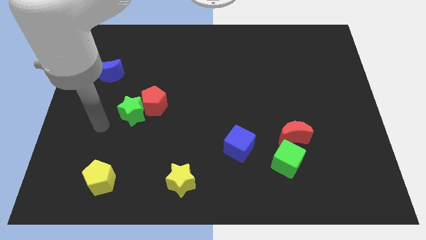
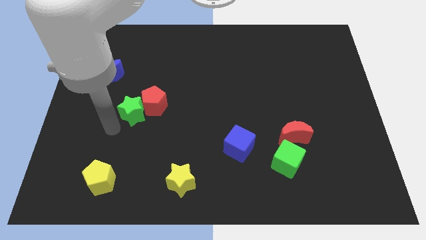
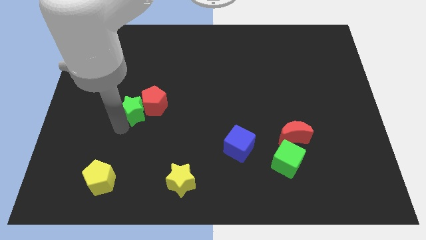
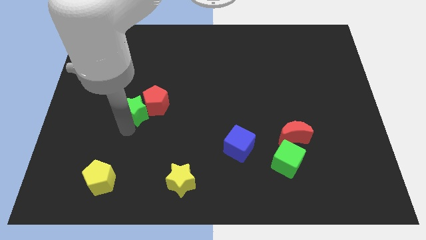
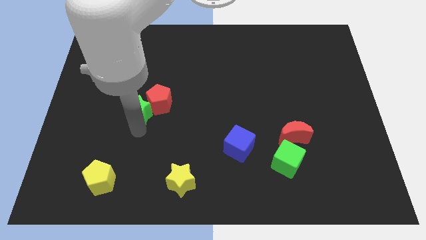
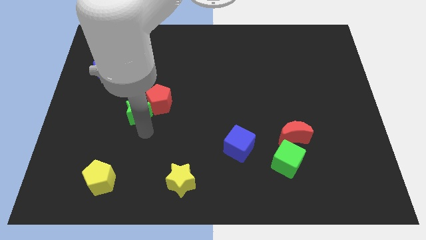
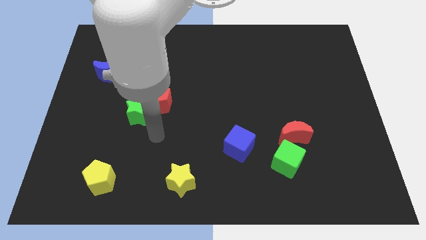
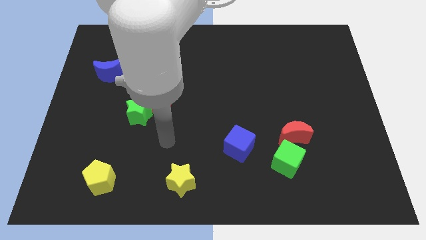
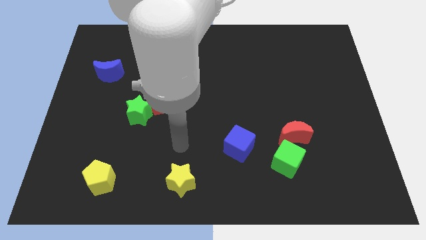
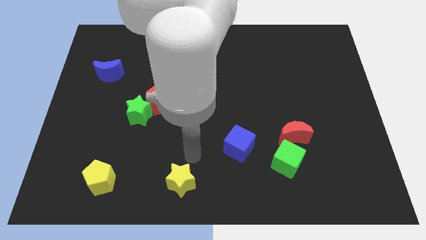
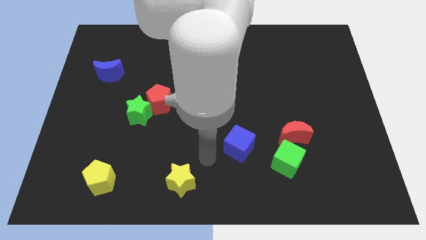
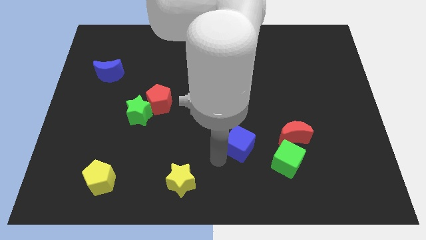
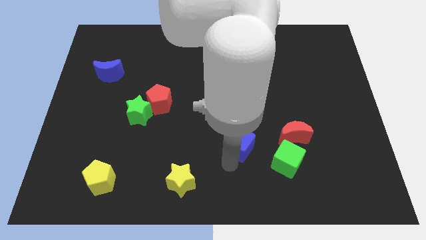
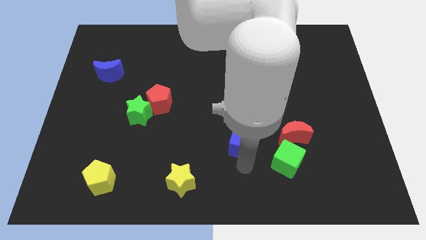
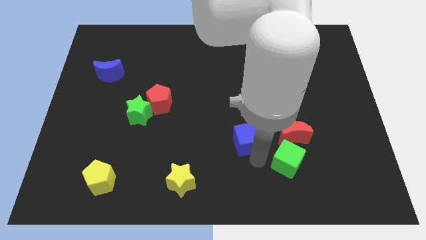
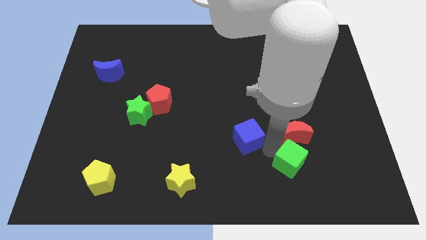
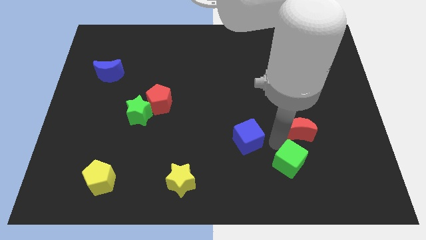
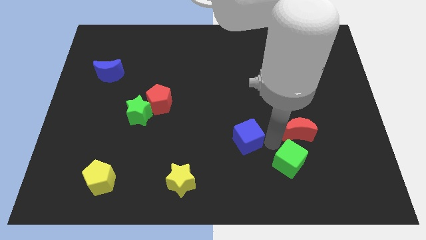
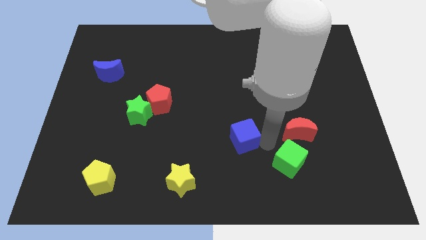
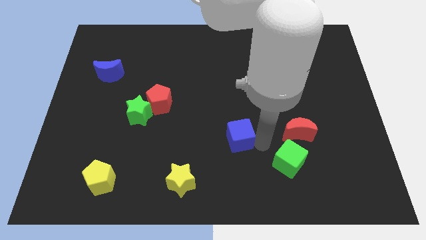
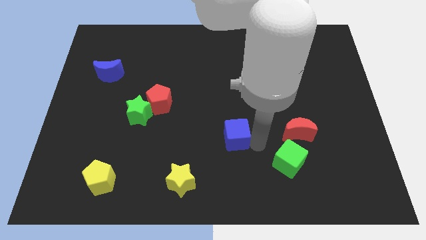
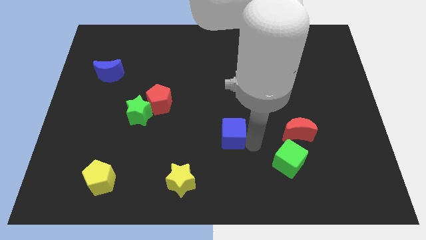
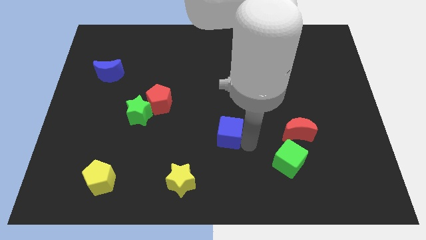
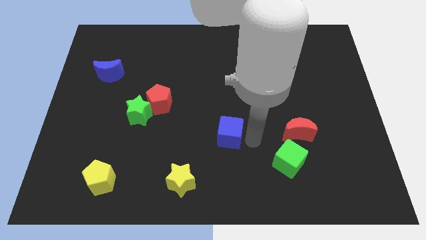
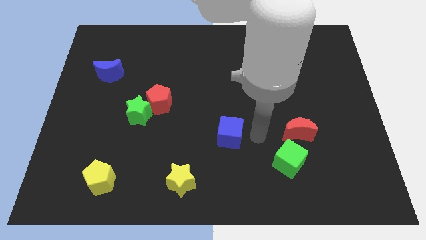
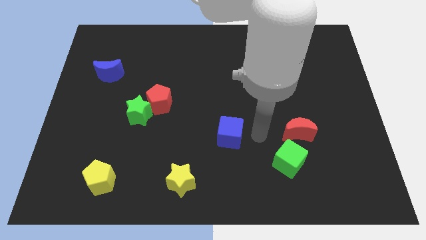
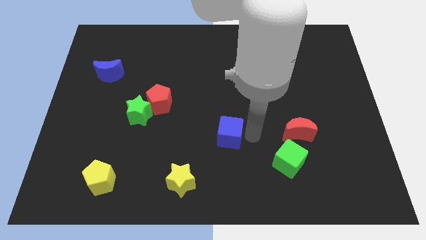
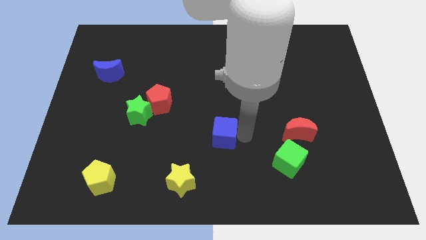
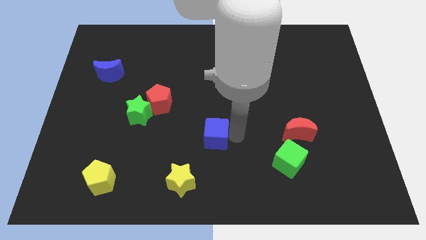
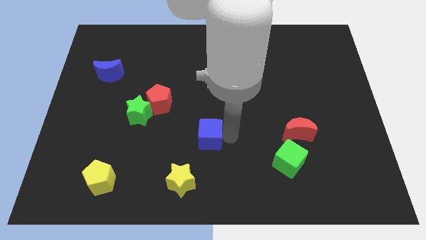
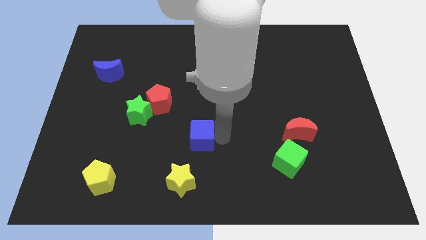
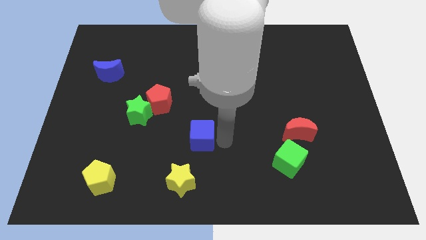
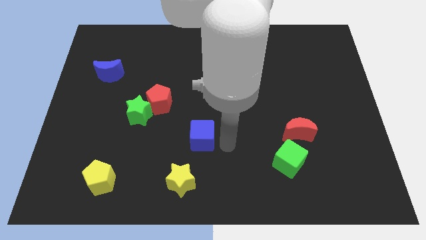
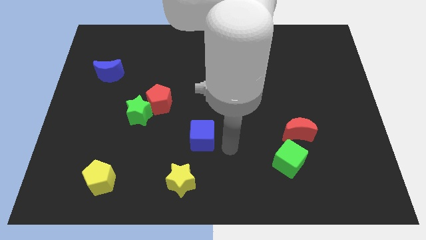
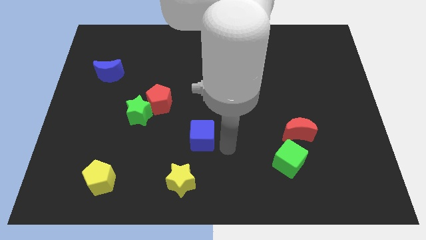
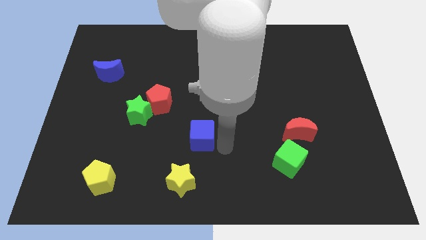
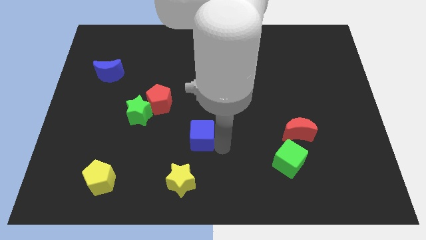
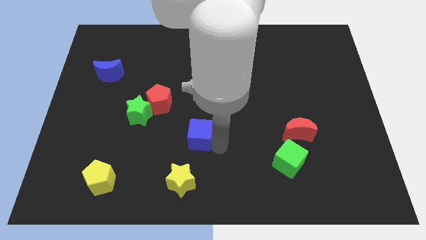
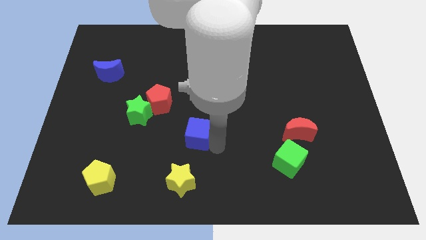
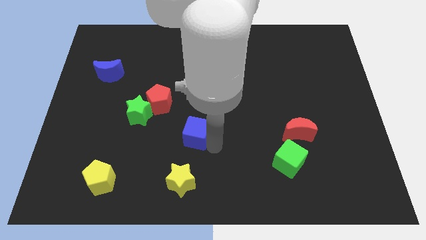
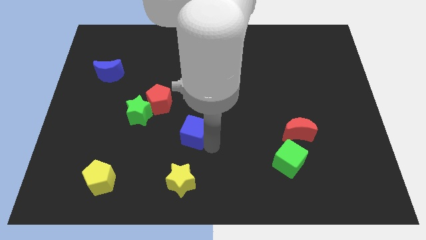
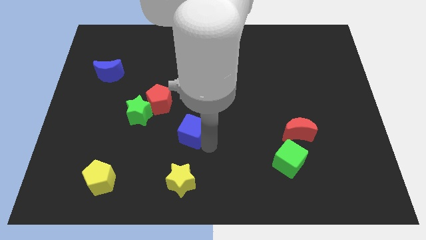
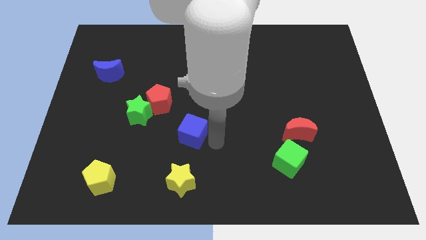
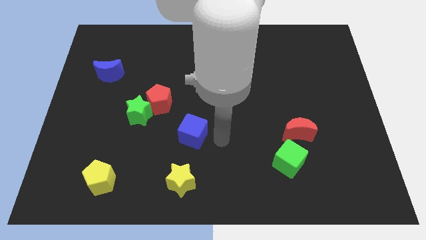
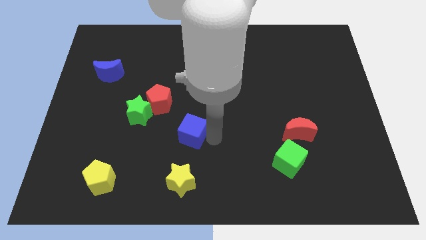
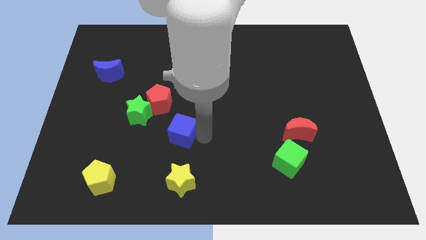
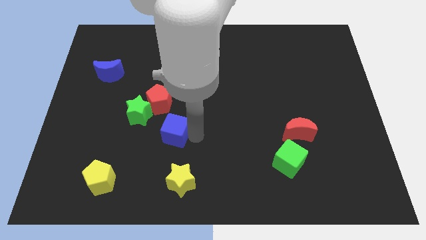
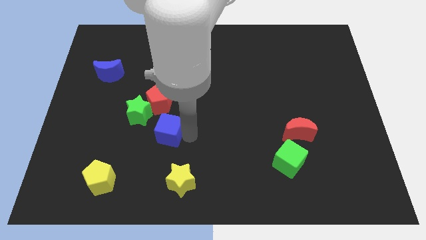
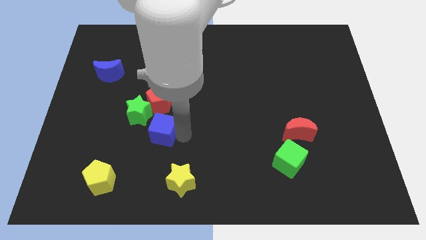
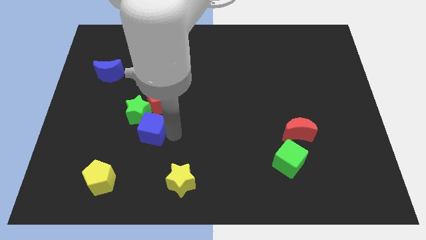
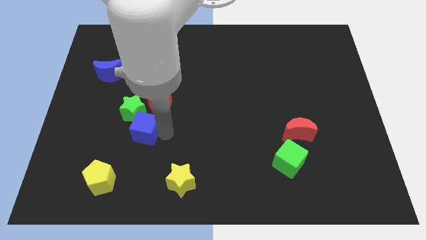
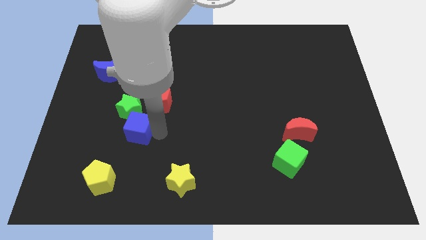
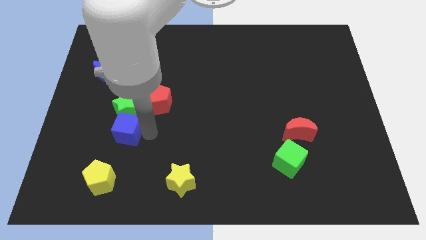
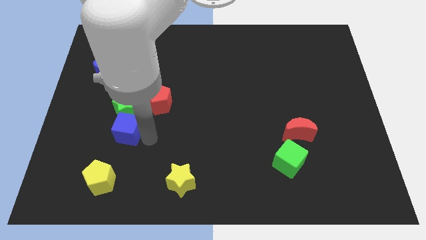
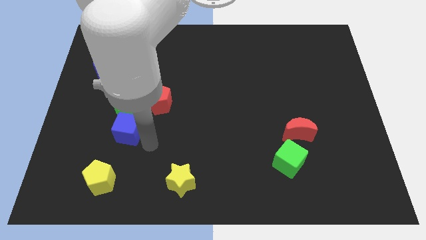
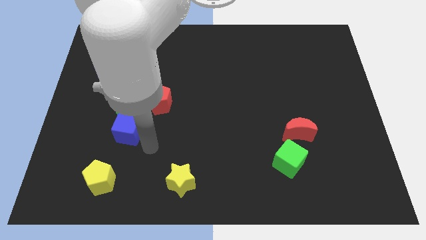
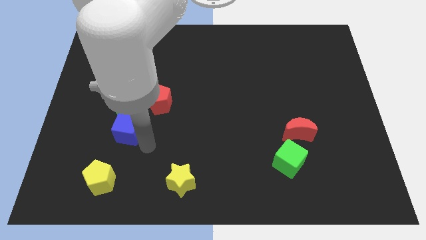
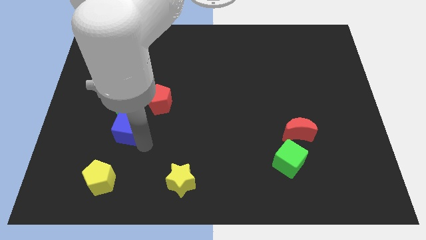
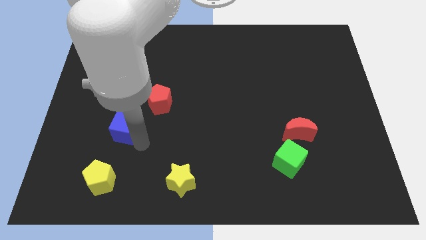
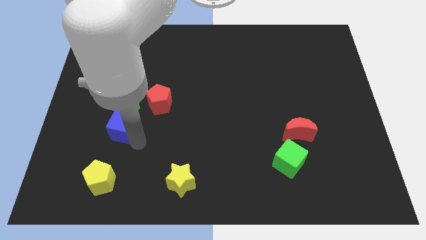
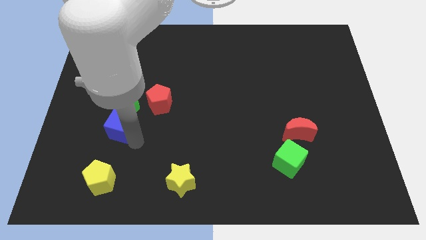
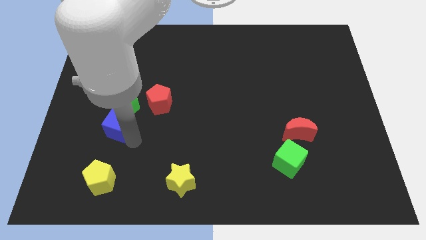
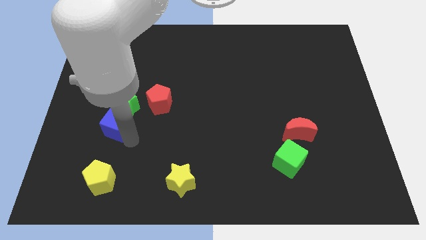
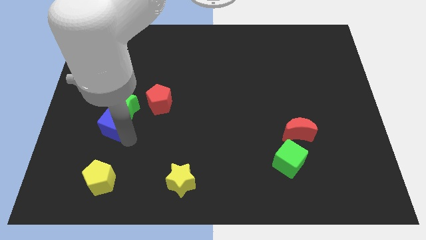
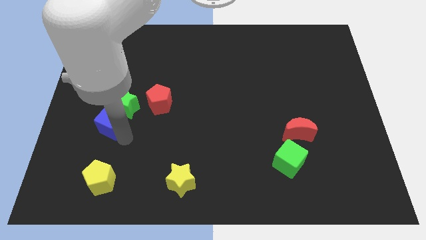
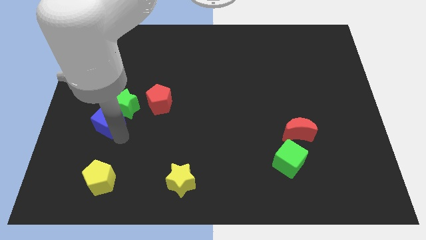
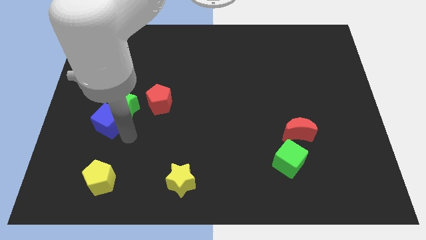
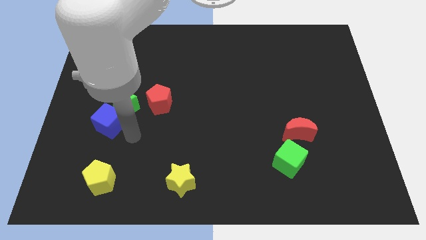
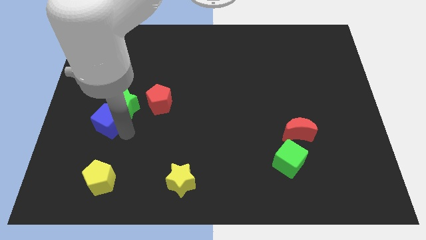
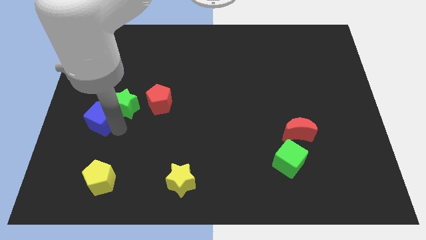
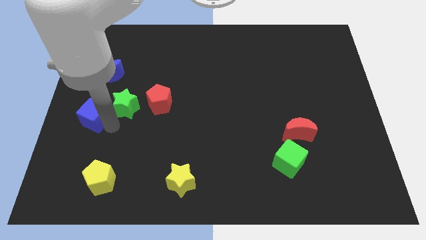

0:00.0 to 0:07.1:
push the blue cube to the left side
